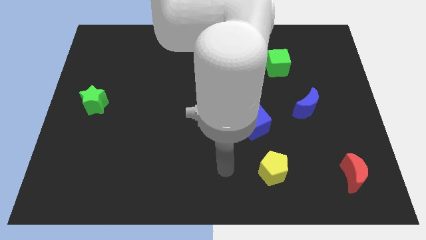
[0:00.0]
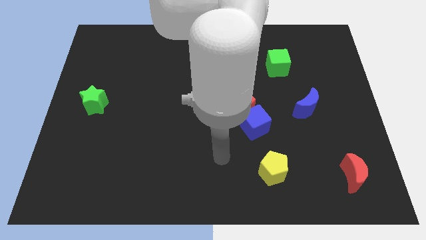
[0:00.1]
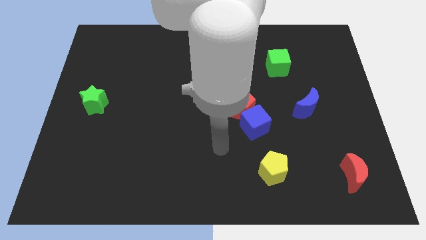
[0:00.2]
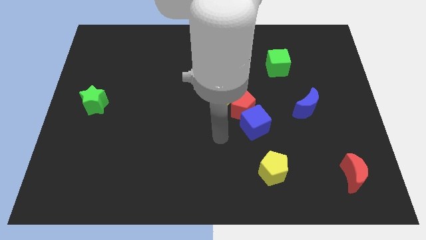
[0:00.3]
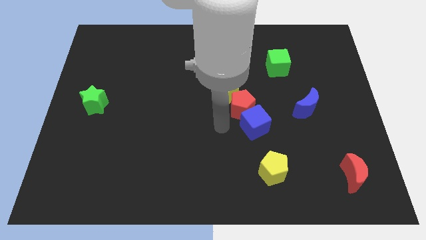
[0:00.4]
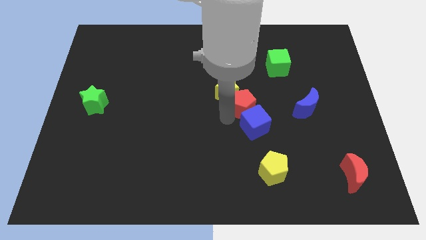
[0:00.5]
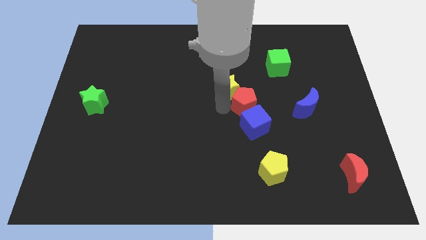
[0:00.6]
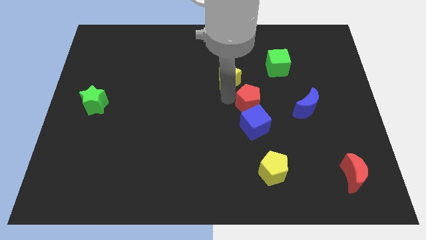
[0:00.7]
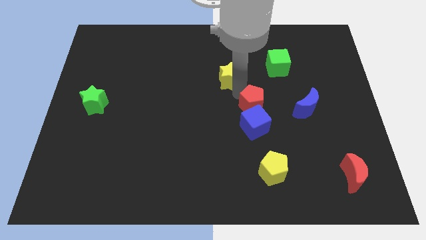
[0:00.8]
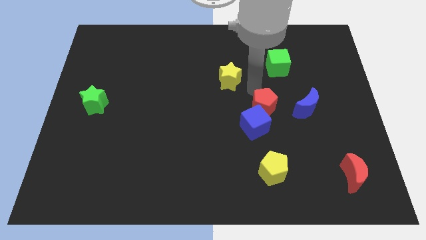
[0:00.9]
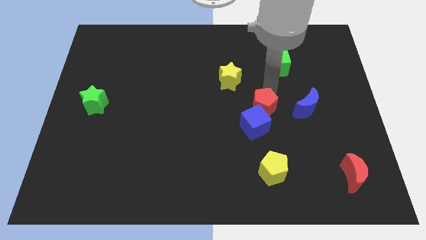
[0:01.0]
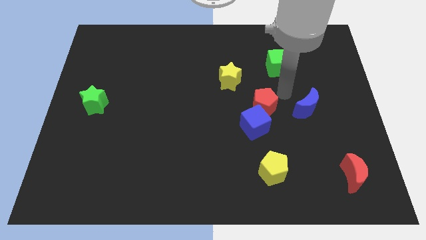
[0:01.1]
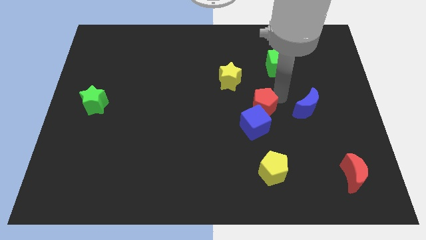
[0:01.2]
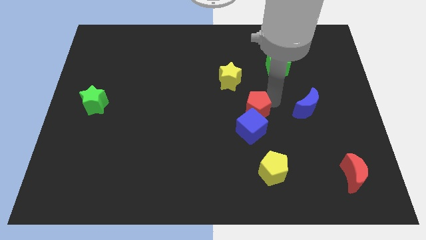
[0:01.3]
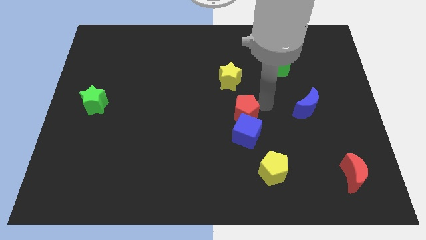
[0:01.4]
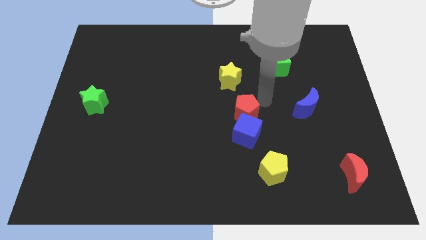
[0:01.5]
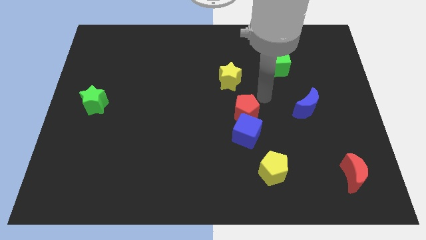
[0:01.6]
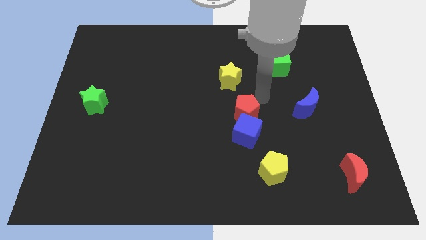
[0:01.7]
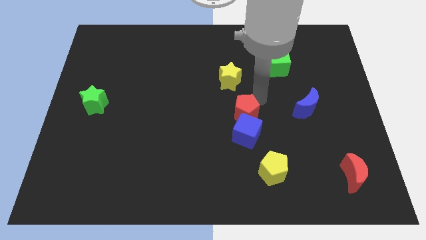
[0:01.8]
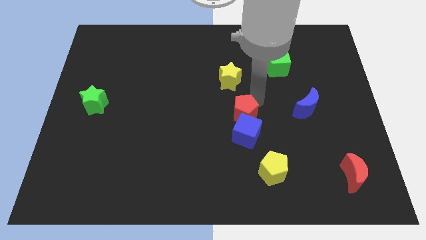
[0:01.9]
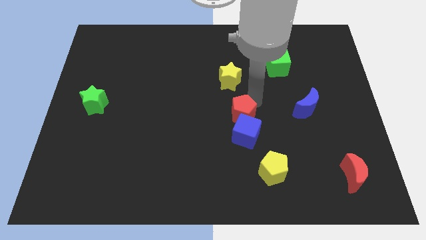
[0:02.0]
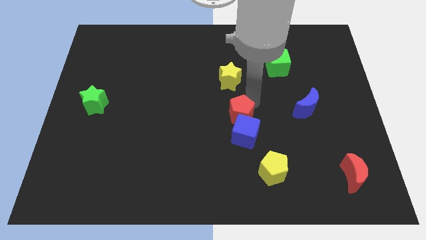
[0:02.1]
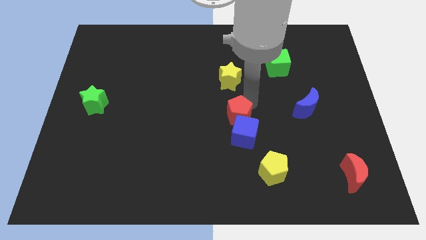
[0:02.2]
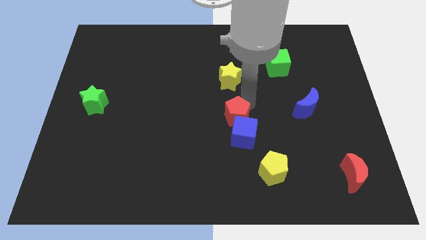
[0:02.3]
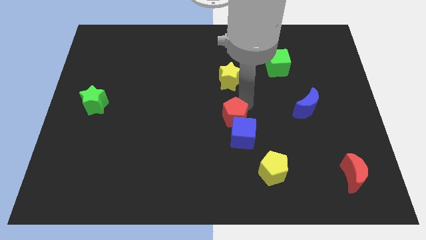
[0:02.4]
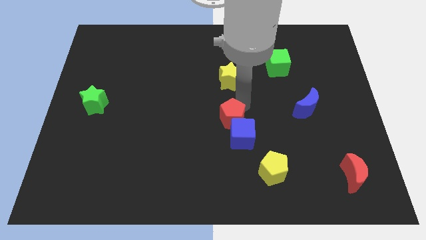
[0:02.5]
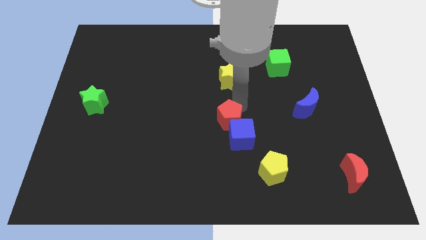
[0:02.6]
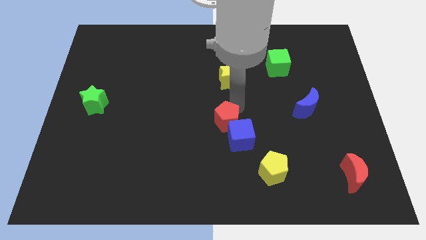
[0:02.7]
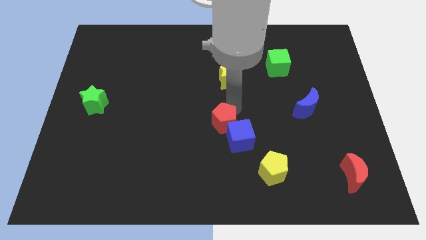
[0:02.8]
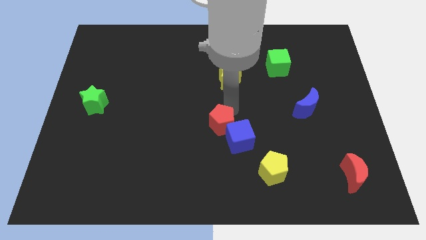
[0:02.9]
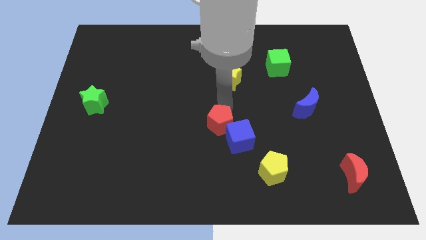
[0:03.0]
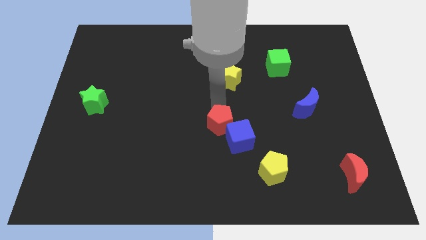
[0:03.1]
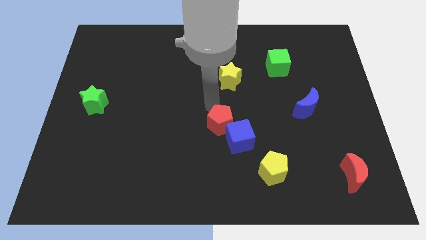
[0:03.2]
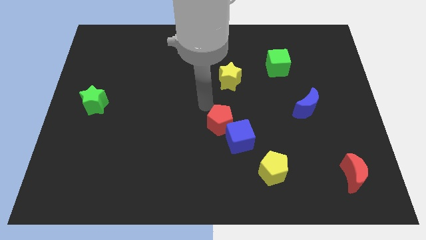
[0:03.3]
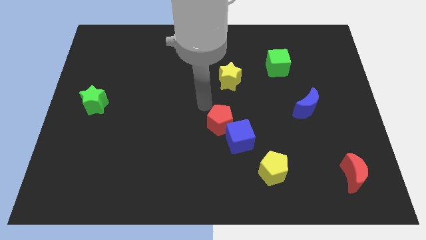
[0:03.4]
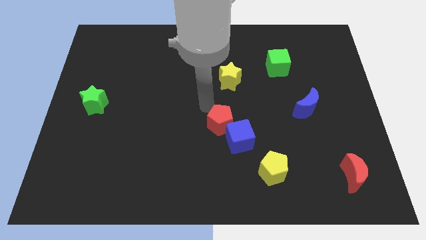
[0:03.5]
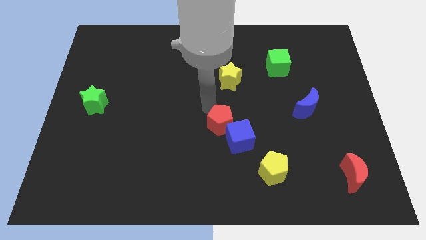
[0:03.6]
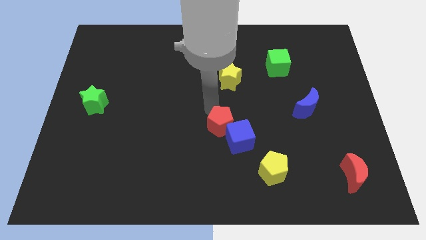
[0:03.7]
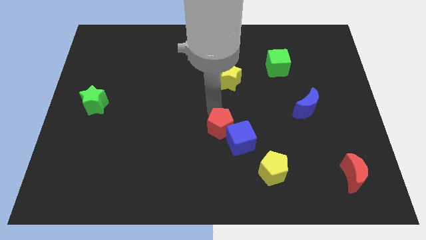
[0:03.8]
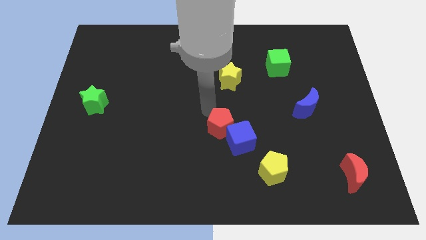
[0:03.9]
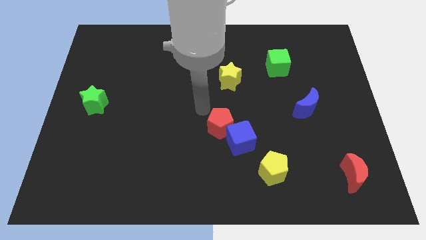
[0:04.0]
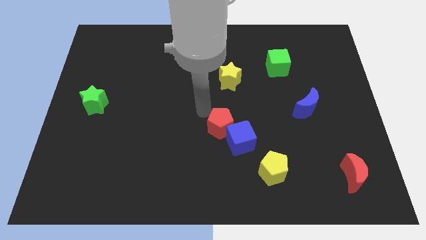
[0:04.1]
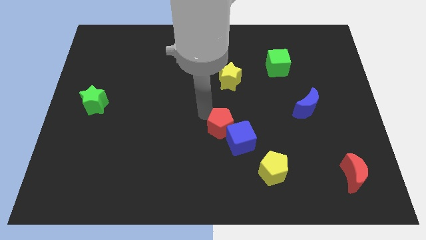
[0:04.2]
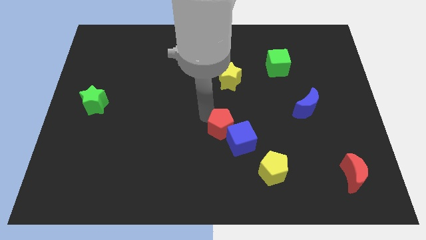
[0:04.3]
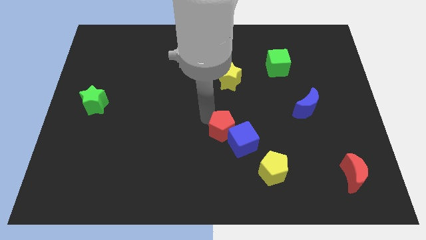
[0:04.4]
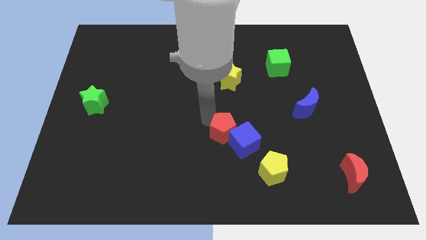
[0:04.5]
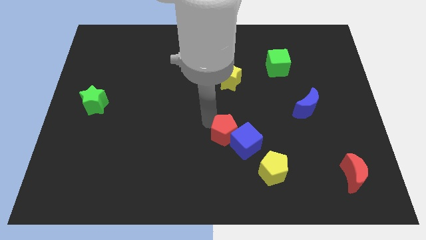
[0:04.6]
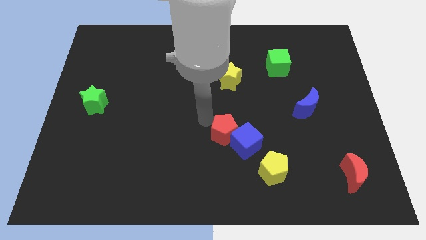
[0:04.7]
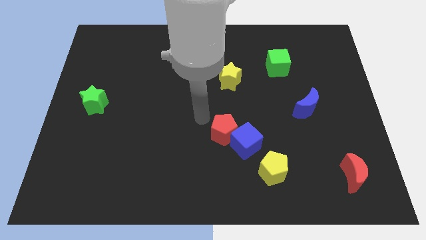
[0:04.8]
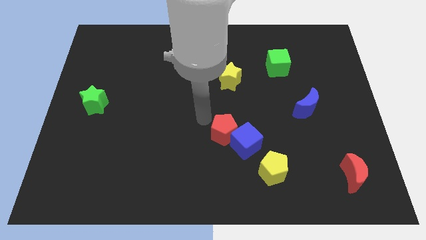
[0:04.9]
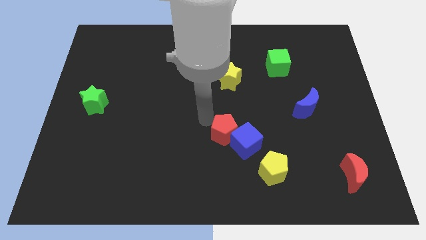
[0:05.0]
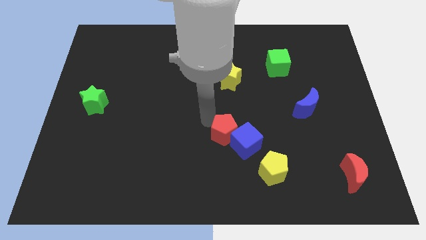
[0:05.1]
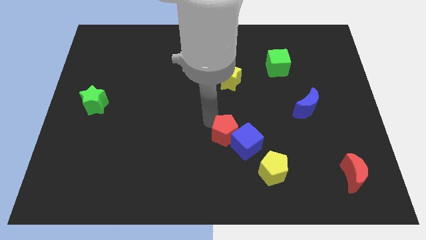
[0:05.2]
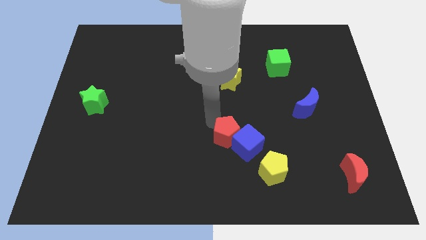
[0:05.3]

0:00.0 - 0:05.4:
move the red pentagon somewhat downwards

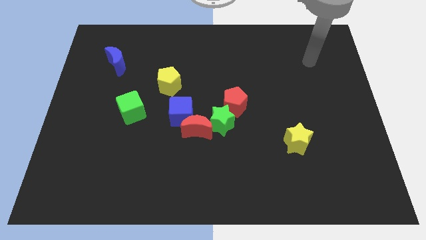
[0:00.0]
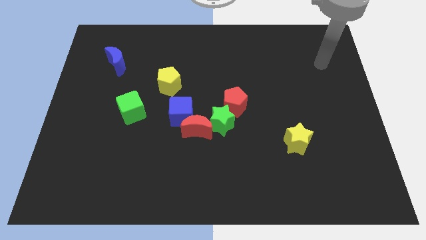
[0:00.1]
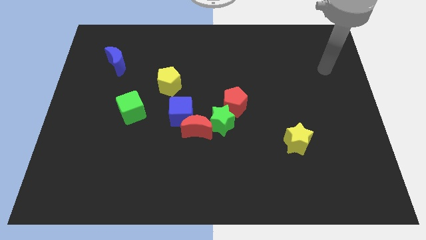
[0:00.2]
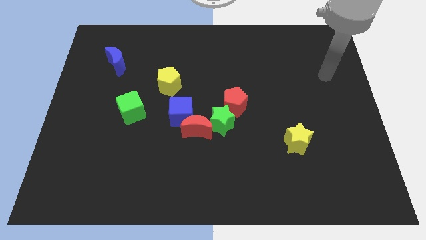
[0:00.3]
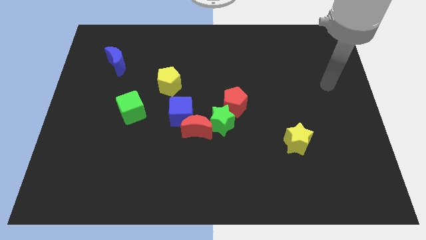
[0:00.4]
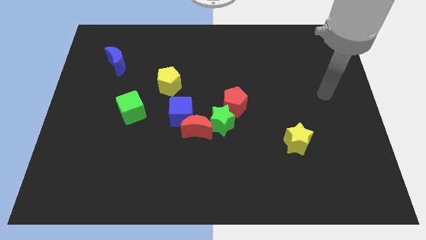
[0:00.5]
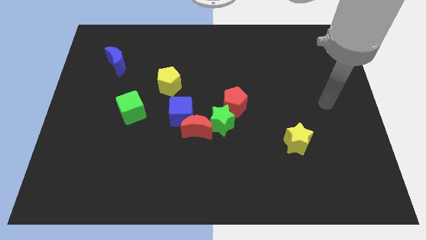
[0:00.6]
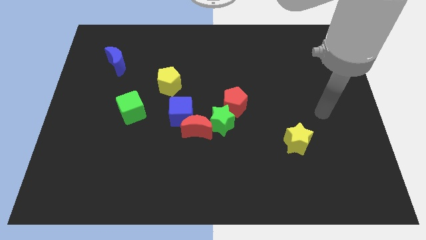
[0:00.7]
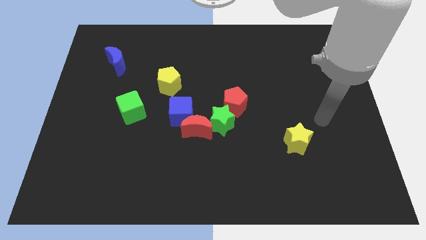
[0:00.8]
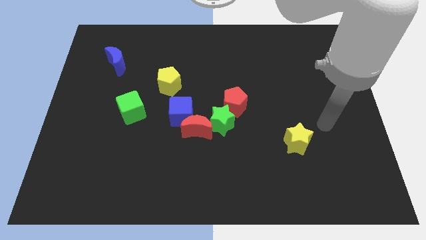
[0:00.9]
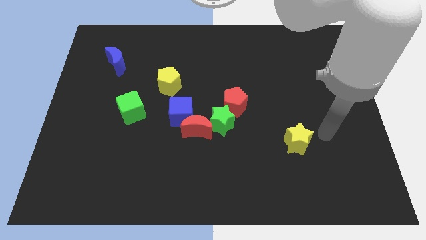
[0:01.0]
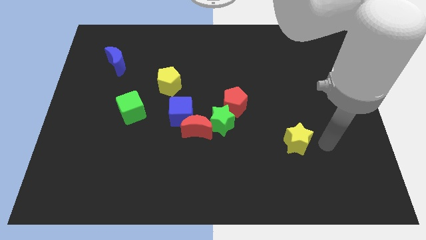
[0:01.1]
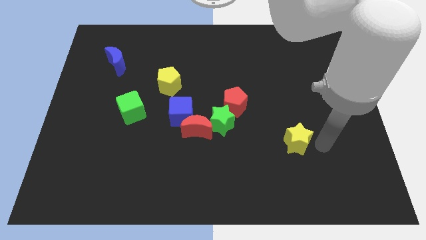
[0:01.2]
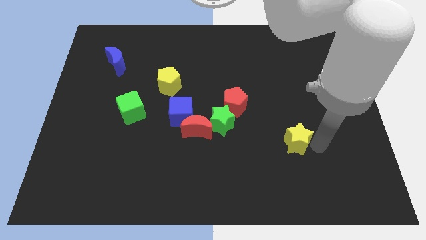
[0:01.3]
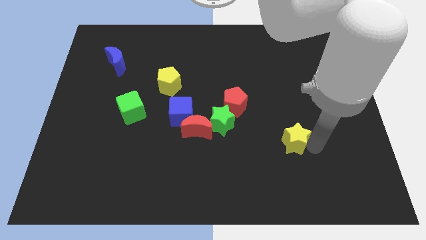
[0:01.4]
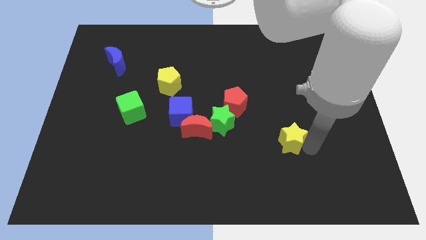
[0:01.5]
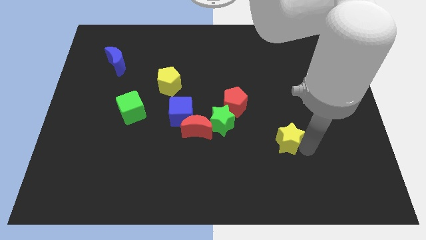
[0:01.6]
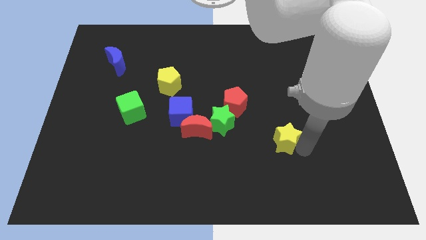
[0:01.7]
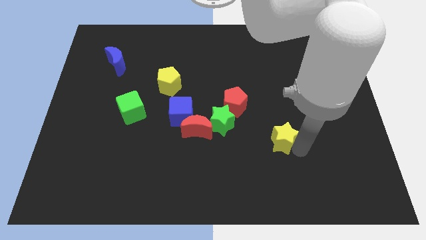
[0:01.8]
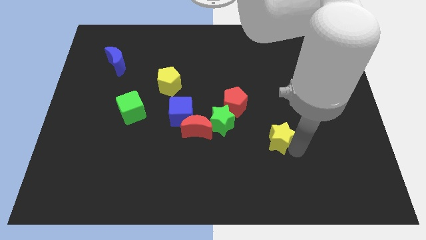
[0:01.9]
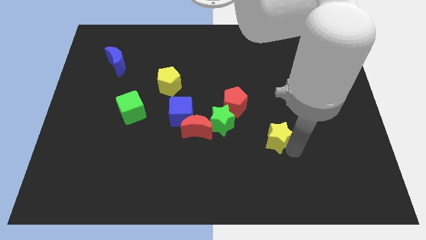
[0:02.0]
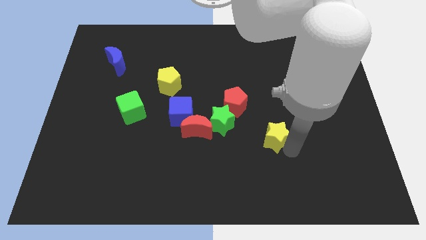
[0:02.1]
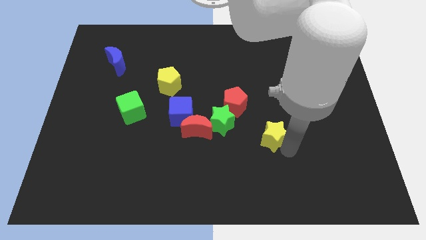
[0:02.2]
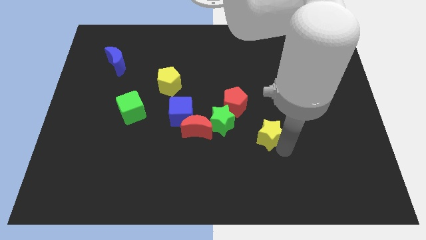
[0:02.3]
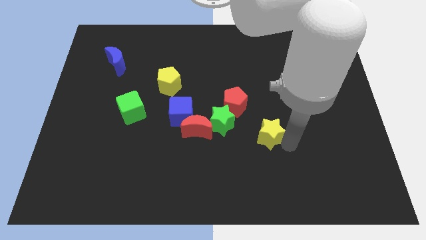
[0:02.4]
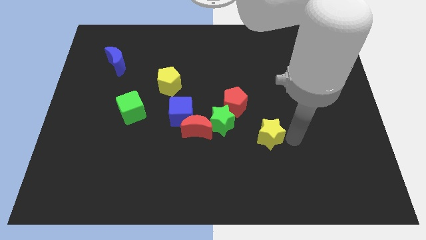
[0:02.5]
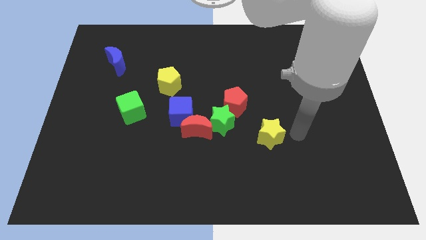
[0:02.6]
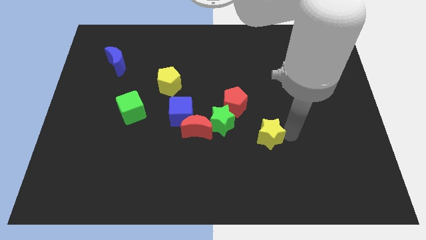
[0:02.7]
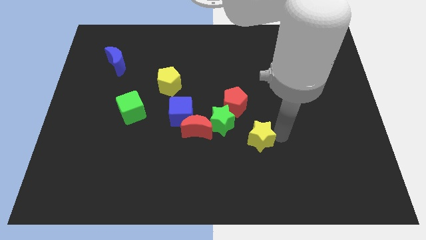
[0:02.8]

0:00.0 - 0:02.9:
move the yellow star left a bit
